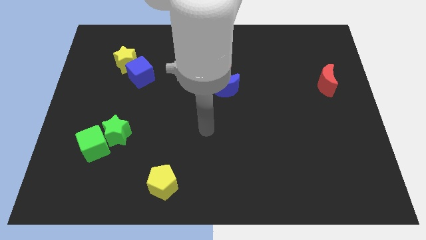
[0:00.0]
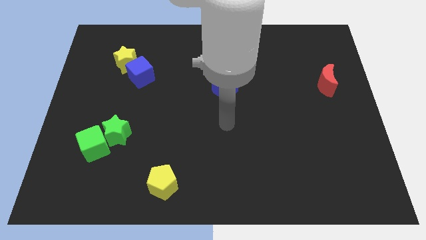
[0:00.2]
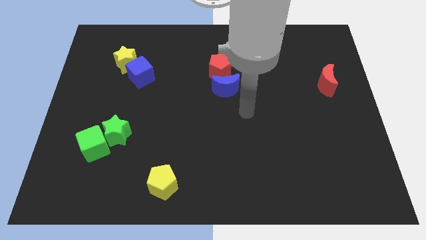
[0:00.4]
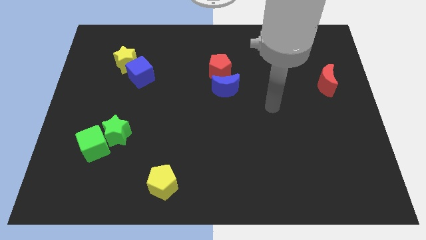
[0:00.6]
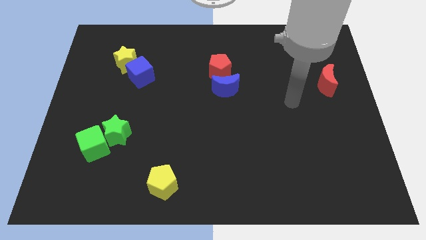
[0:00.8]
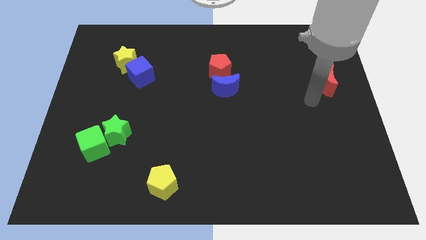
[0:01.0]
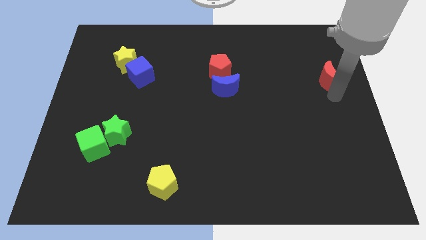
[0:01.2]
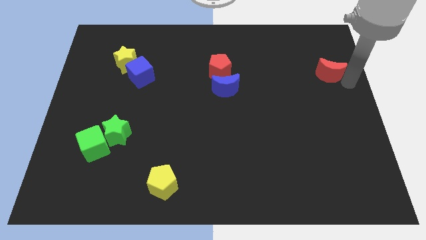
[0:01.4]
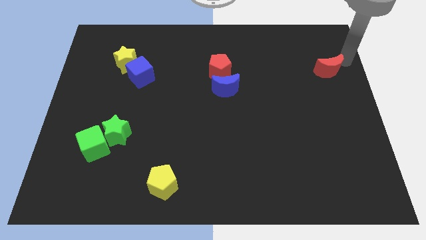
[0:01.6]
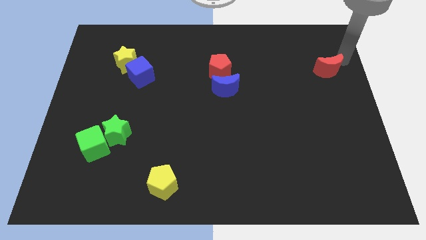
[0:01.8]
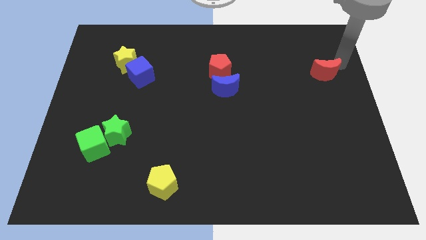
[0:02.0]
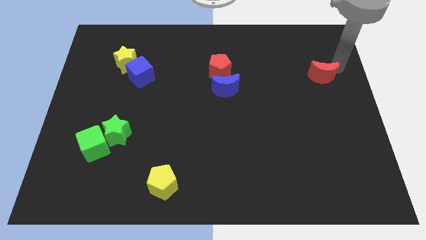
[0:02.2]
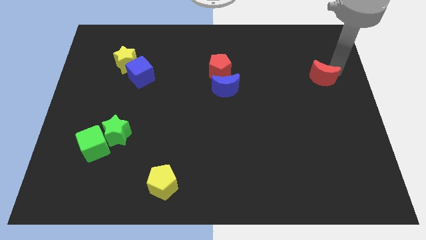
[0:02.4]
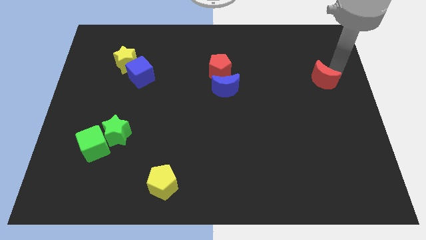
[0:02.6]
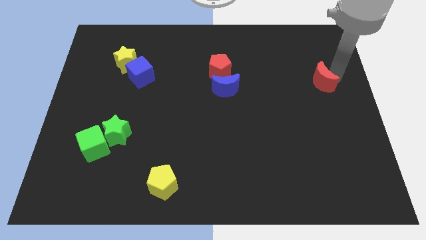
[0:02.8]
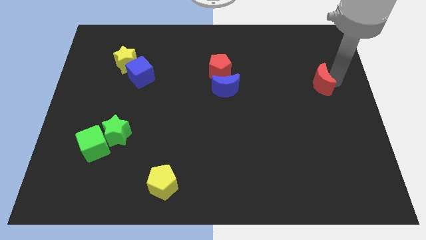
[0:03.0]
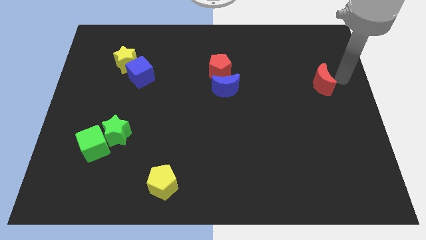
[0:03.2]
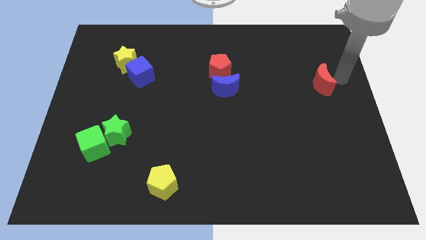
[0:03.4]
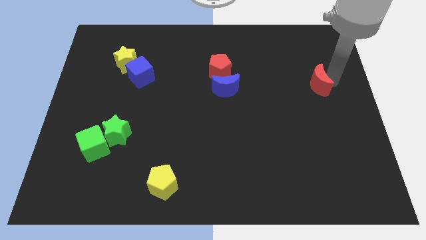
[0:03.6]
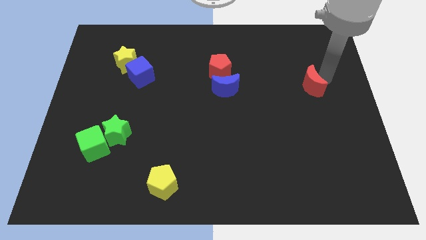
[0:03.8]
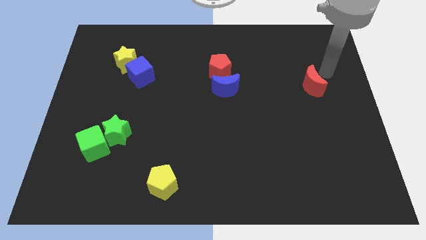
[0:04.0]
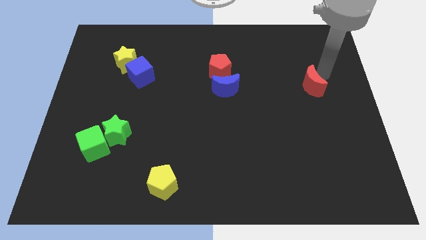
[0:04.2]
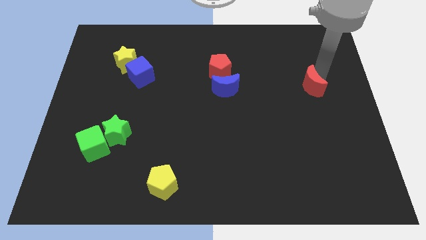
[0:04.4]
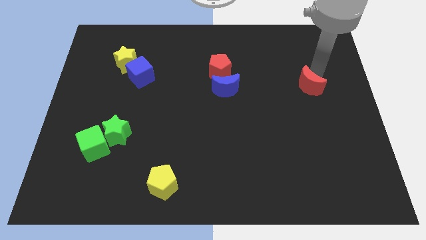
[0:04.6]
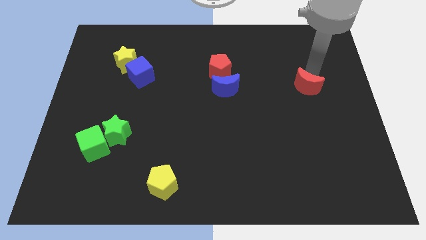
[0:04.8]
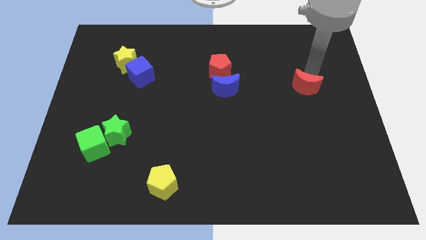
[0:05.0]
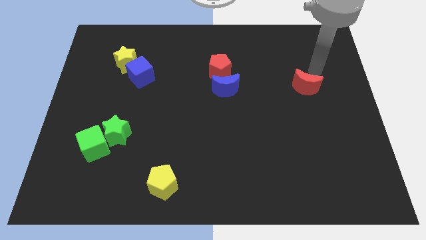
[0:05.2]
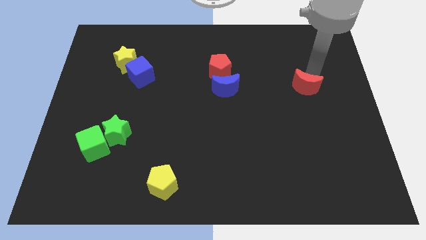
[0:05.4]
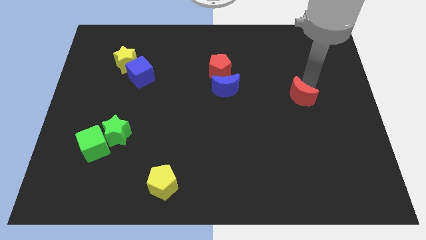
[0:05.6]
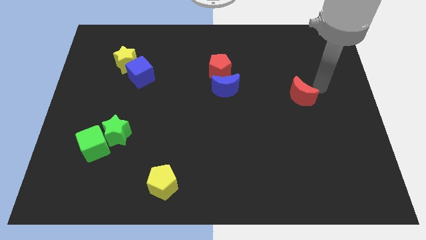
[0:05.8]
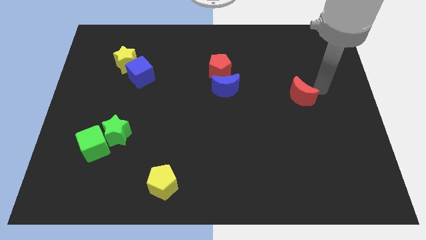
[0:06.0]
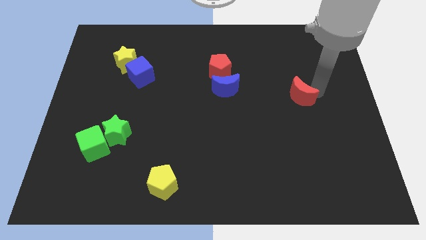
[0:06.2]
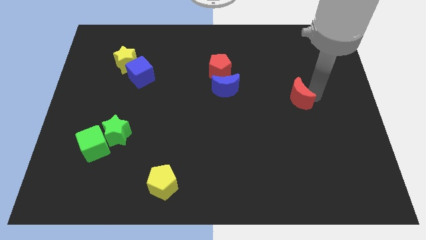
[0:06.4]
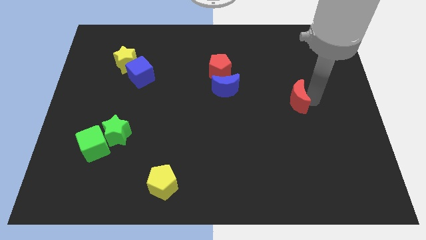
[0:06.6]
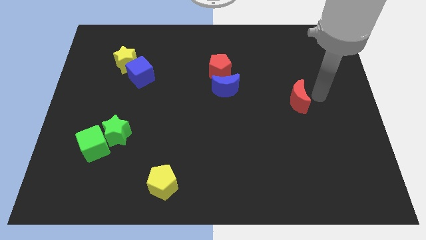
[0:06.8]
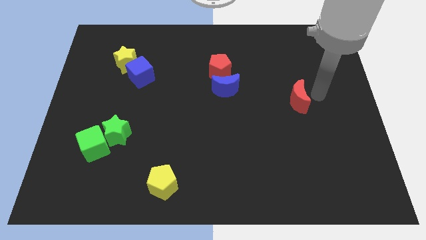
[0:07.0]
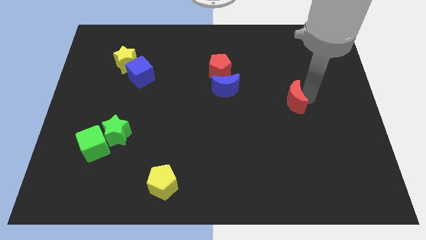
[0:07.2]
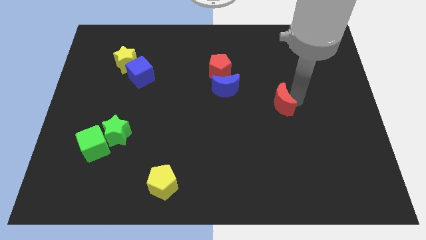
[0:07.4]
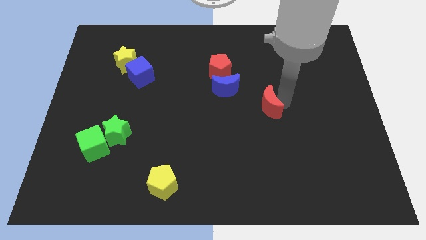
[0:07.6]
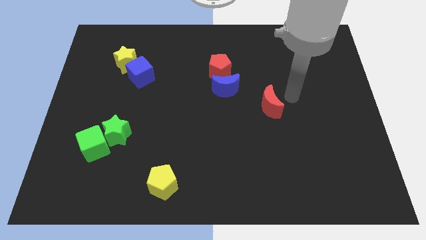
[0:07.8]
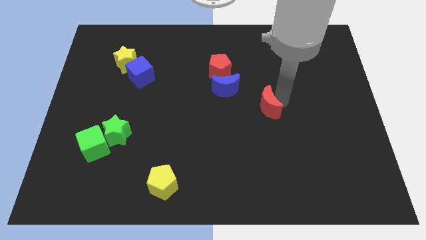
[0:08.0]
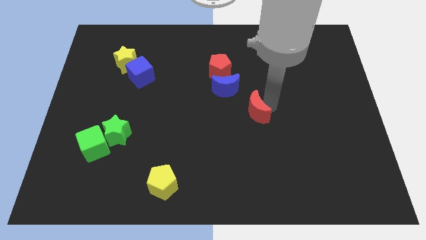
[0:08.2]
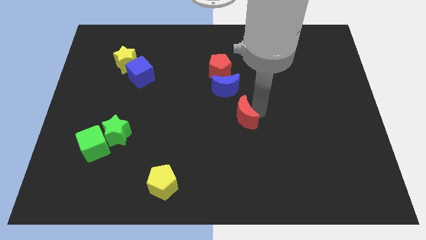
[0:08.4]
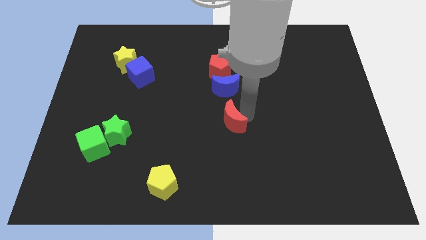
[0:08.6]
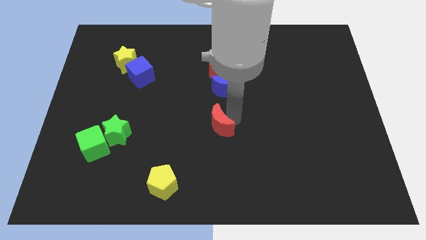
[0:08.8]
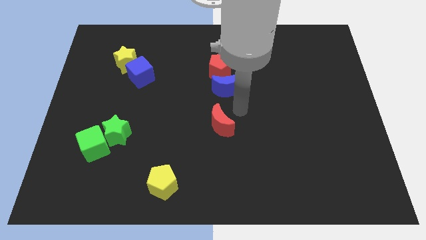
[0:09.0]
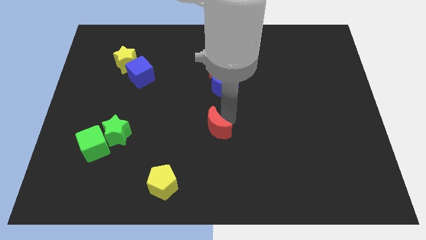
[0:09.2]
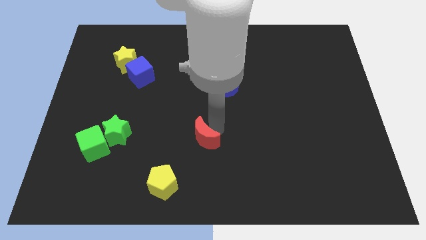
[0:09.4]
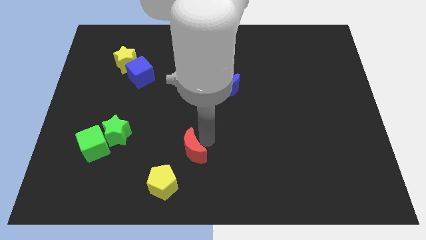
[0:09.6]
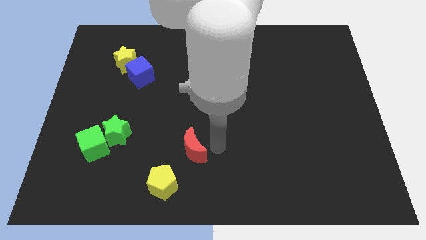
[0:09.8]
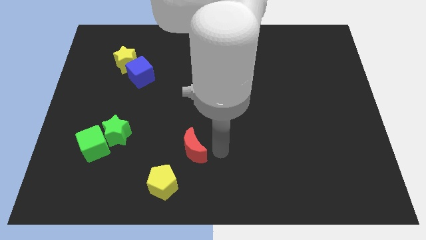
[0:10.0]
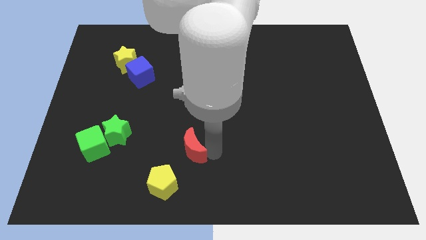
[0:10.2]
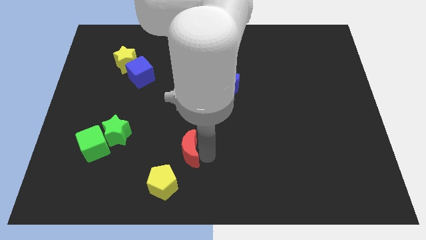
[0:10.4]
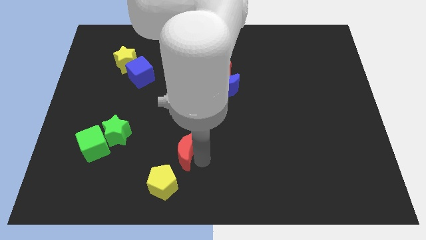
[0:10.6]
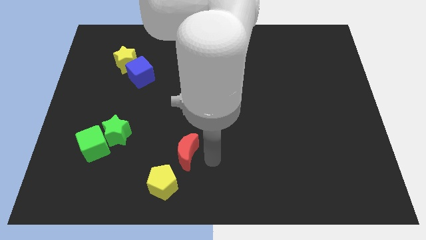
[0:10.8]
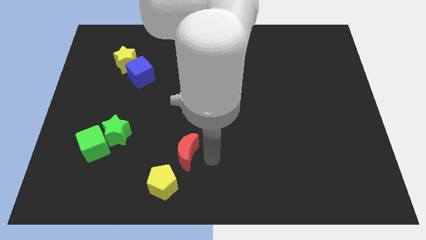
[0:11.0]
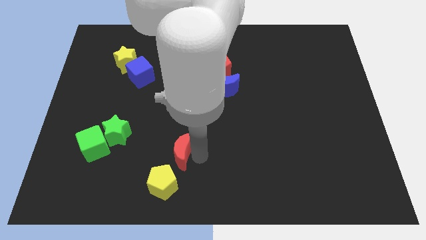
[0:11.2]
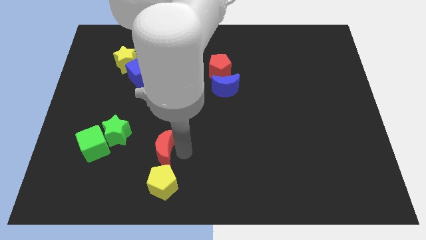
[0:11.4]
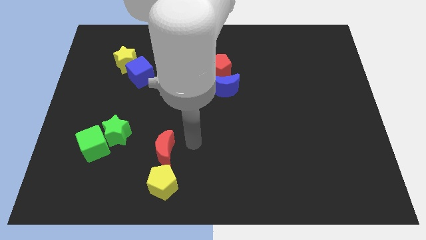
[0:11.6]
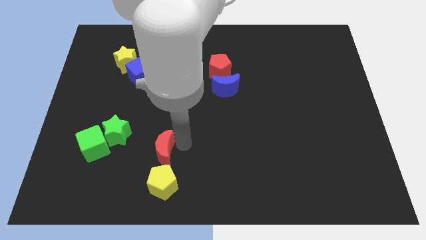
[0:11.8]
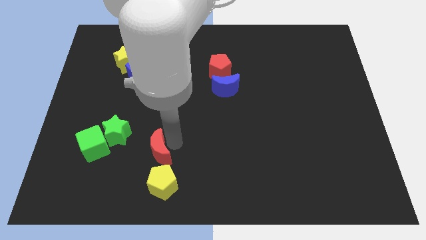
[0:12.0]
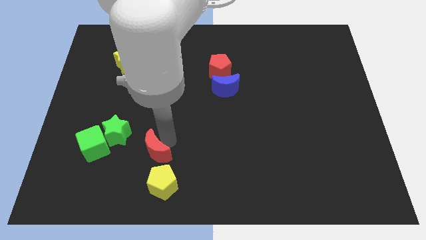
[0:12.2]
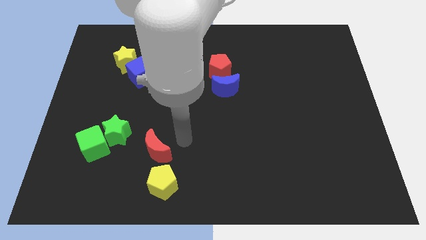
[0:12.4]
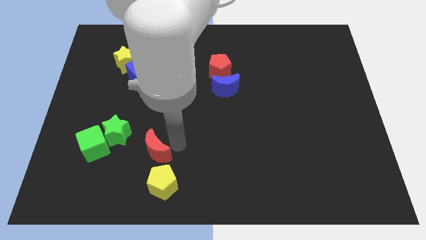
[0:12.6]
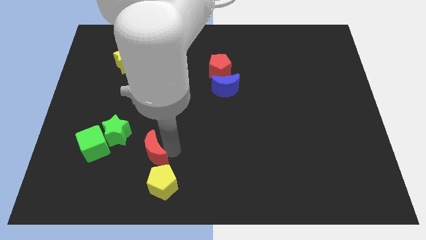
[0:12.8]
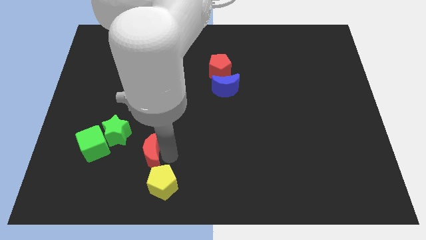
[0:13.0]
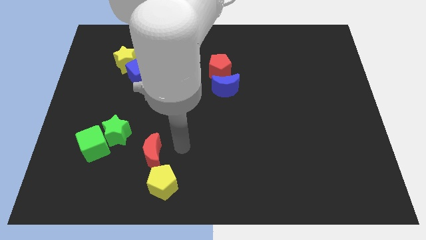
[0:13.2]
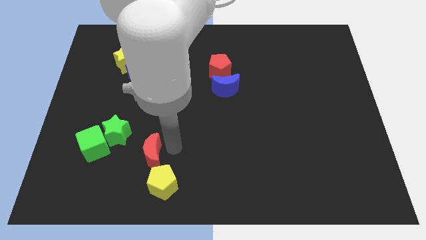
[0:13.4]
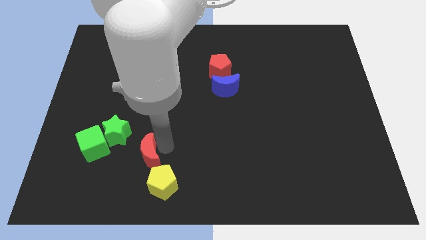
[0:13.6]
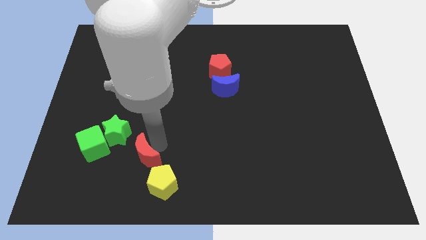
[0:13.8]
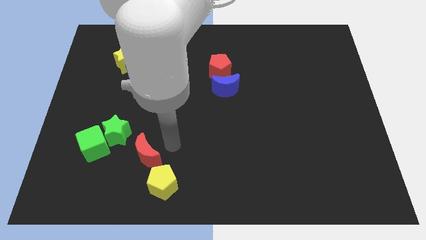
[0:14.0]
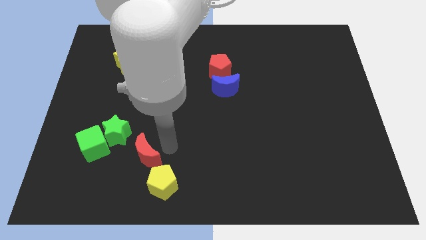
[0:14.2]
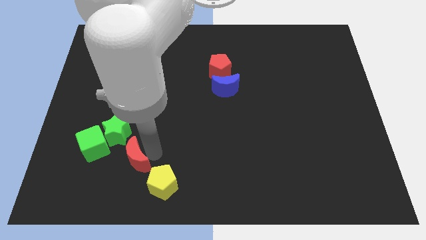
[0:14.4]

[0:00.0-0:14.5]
push the red moon to the bottom right side of the green cube
